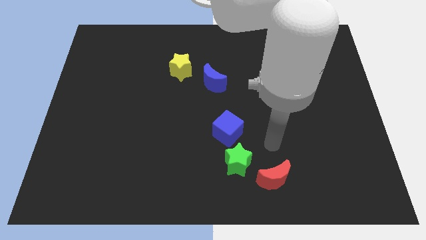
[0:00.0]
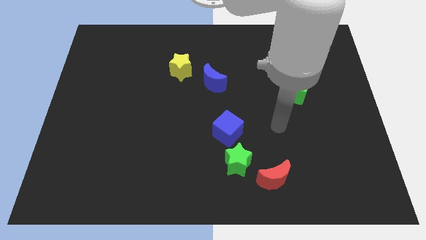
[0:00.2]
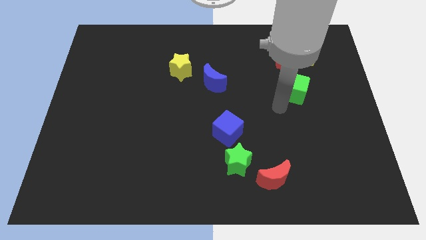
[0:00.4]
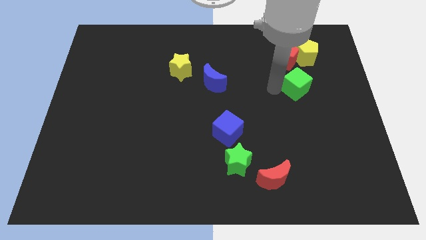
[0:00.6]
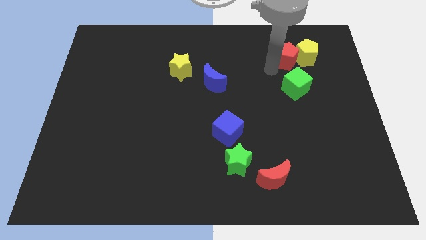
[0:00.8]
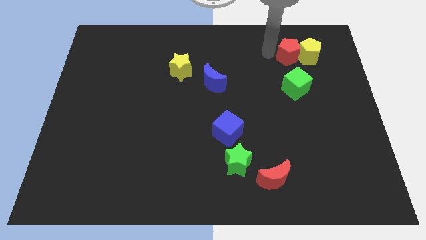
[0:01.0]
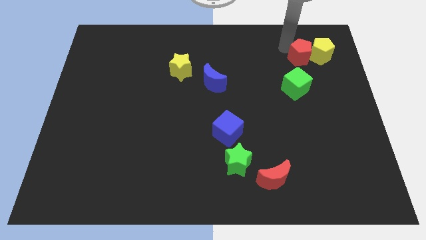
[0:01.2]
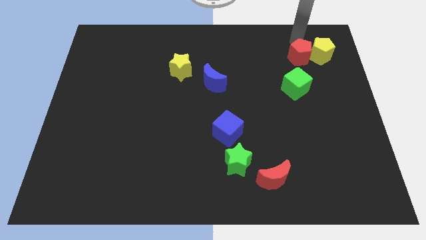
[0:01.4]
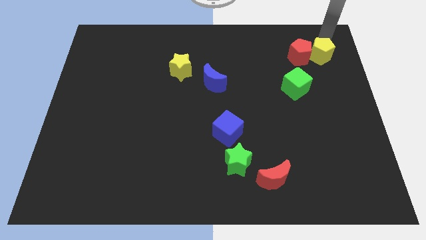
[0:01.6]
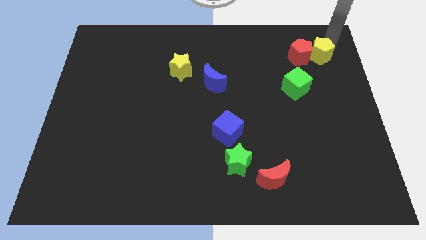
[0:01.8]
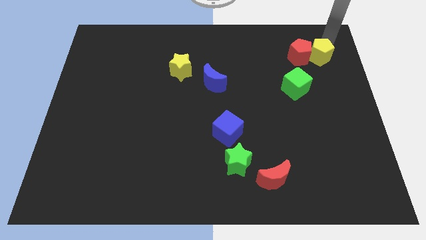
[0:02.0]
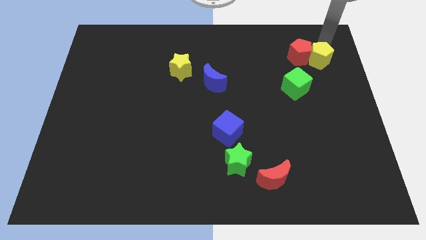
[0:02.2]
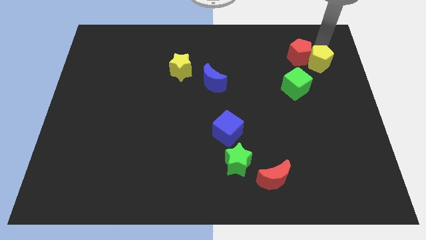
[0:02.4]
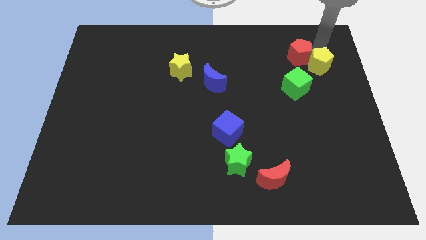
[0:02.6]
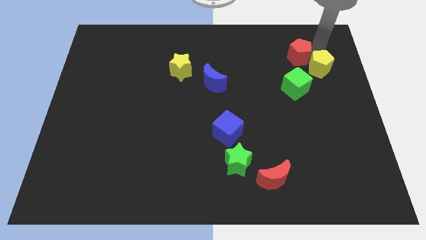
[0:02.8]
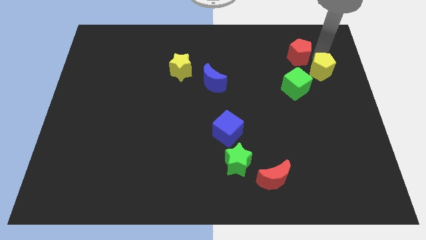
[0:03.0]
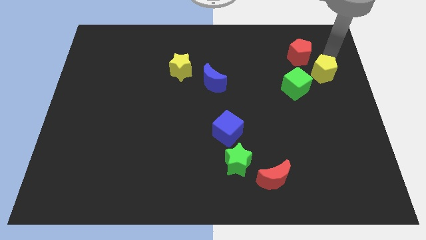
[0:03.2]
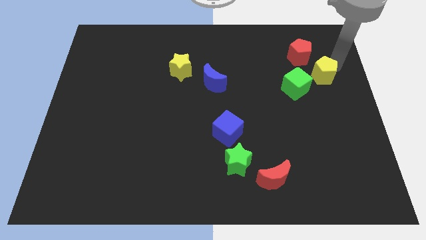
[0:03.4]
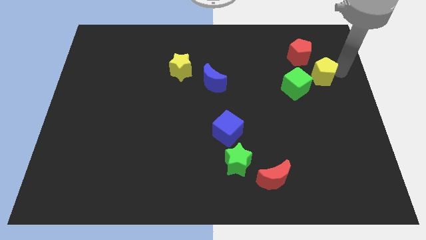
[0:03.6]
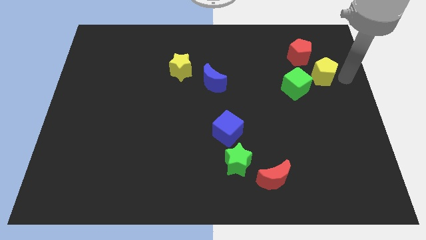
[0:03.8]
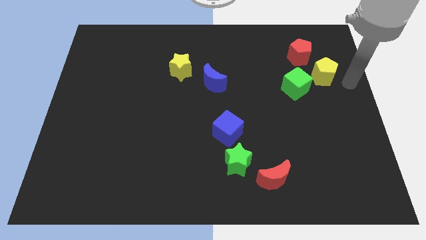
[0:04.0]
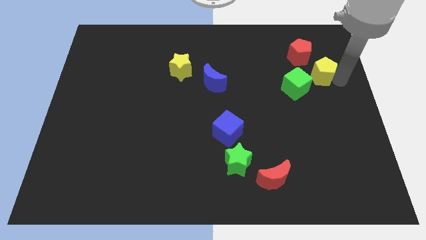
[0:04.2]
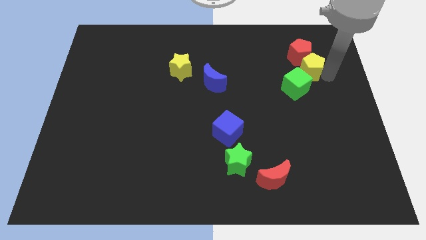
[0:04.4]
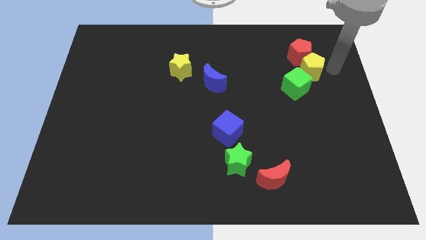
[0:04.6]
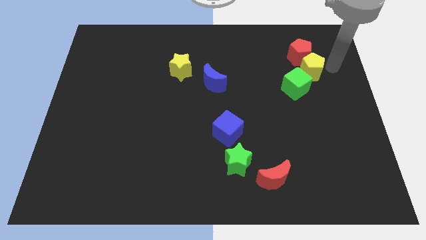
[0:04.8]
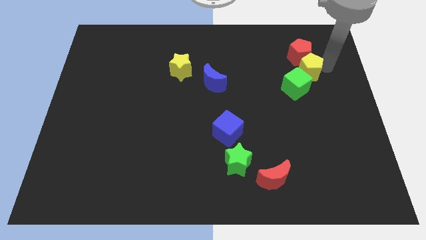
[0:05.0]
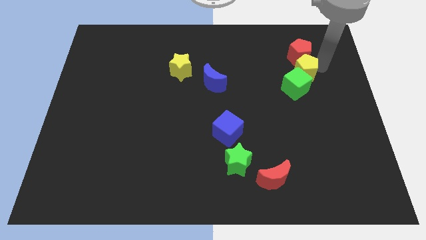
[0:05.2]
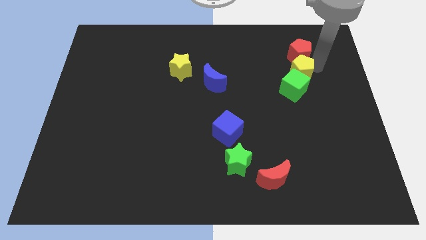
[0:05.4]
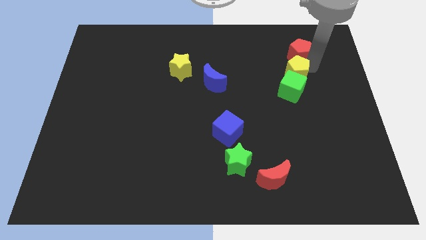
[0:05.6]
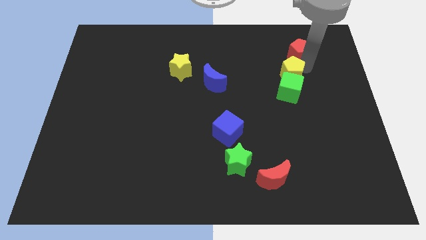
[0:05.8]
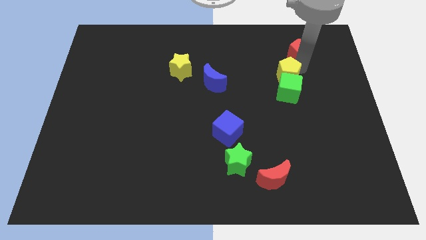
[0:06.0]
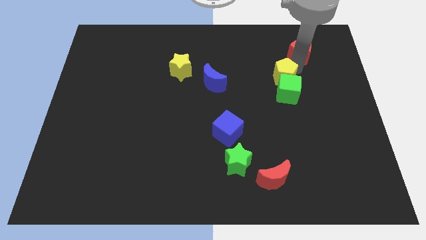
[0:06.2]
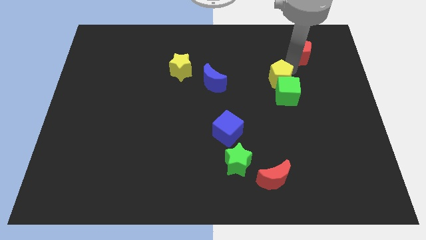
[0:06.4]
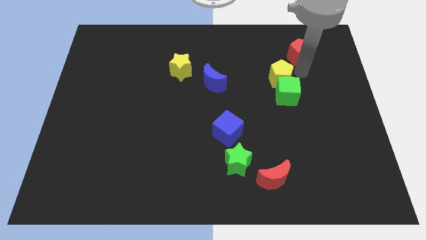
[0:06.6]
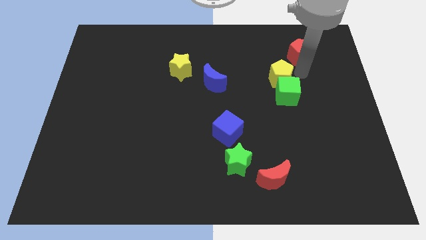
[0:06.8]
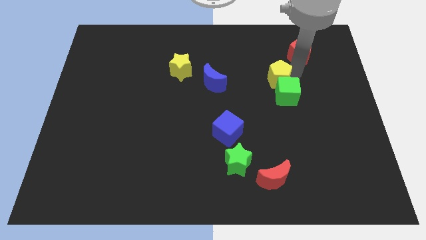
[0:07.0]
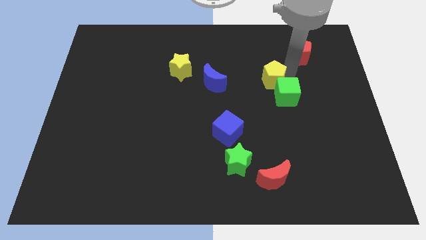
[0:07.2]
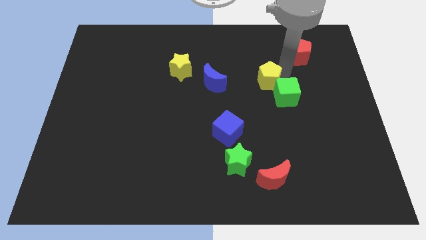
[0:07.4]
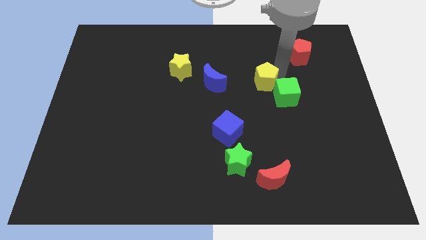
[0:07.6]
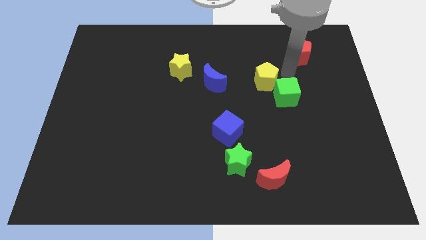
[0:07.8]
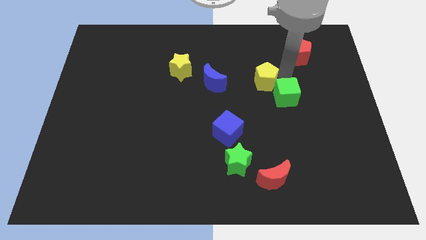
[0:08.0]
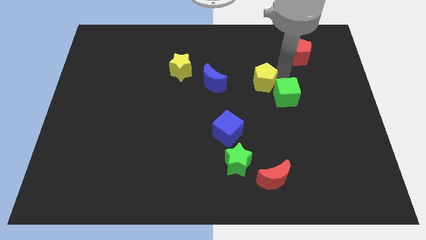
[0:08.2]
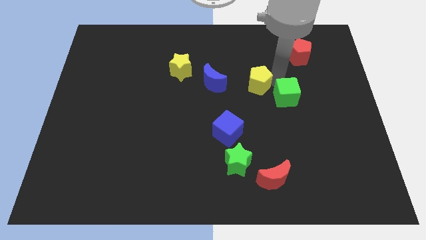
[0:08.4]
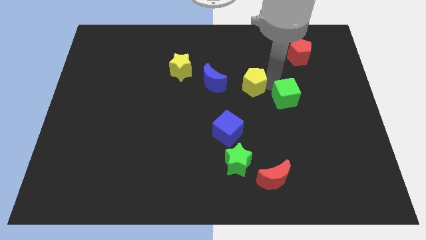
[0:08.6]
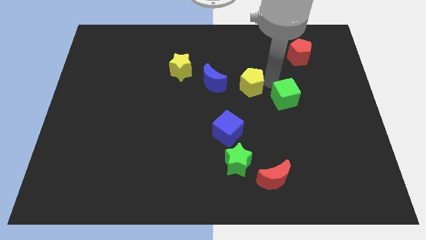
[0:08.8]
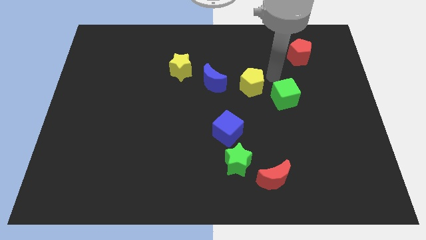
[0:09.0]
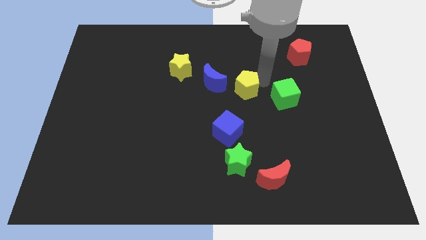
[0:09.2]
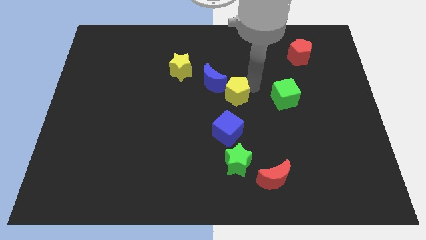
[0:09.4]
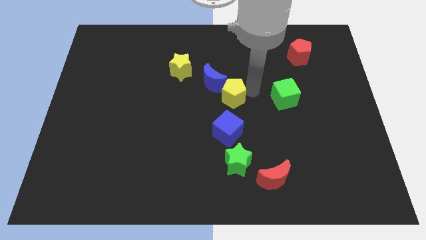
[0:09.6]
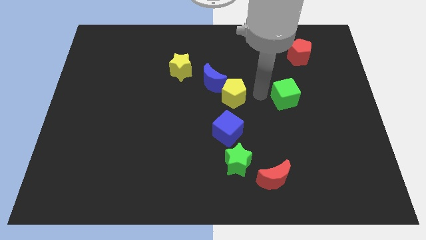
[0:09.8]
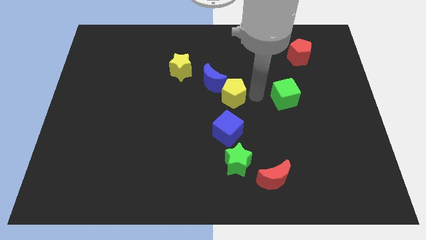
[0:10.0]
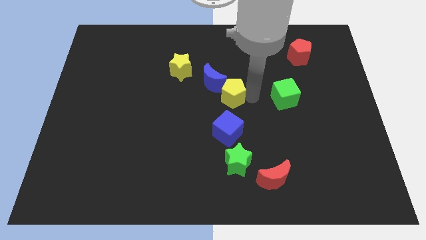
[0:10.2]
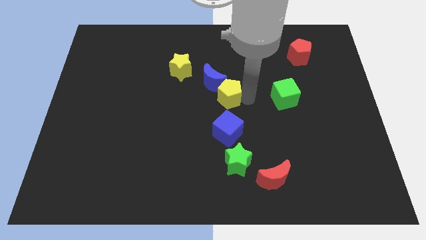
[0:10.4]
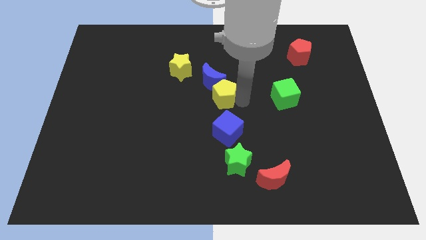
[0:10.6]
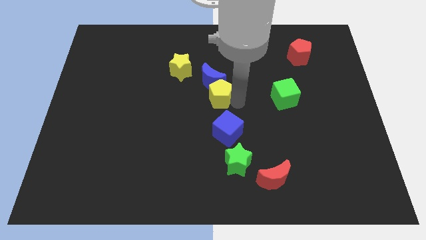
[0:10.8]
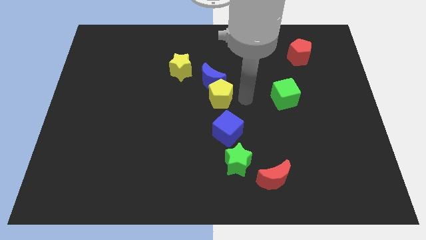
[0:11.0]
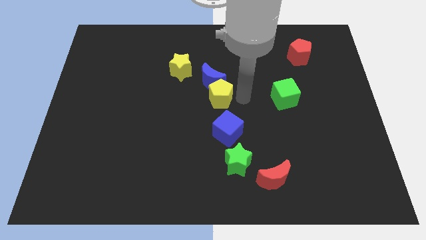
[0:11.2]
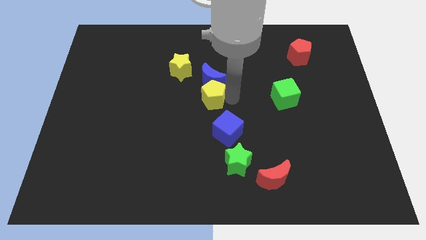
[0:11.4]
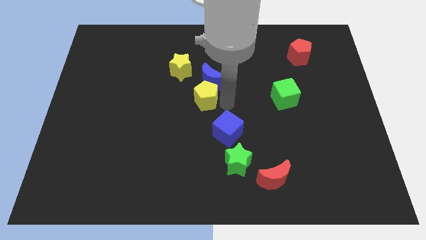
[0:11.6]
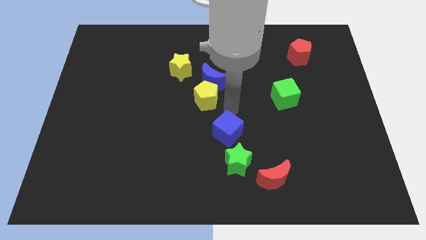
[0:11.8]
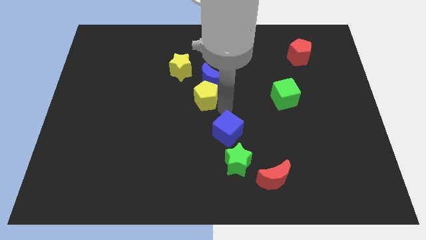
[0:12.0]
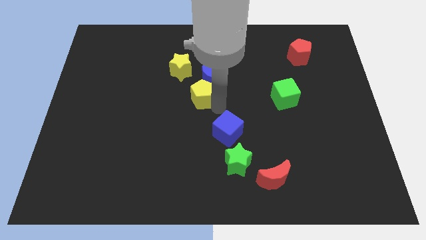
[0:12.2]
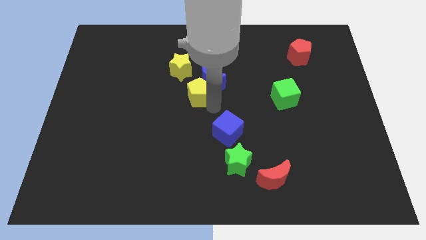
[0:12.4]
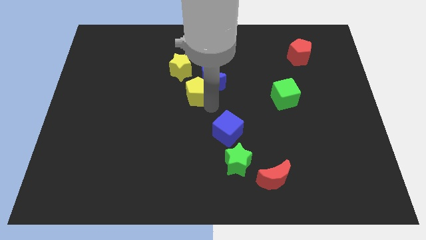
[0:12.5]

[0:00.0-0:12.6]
put the yellow pentagon just left of the blue moon

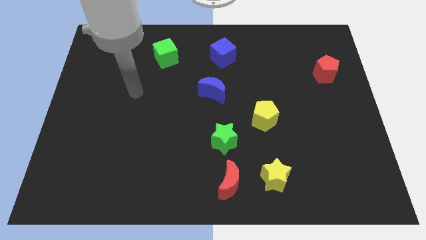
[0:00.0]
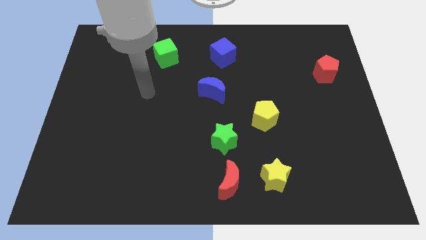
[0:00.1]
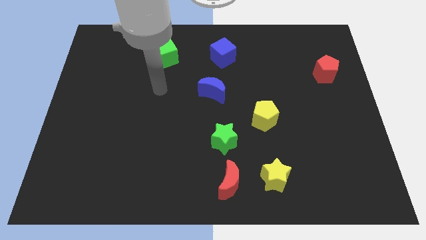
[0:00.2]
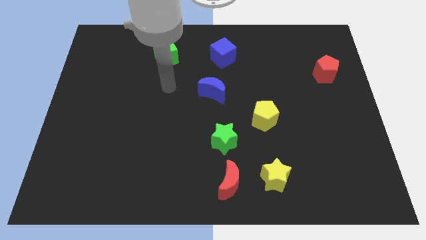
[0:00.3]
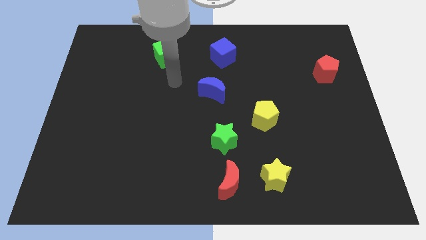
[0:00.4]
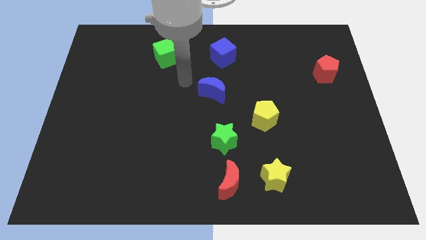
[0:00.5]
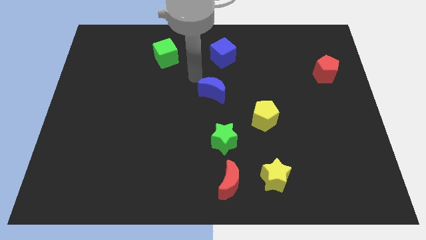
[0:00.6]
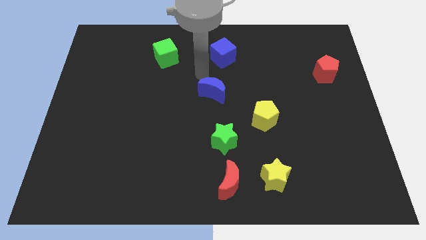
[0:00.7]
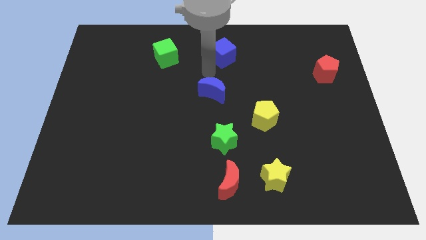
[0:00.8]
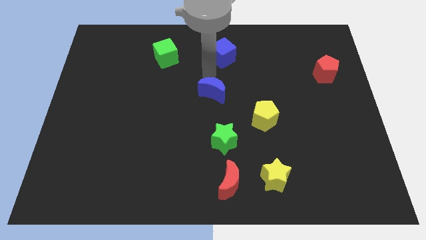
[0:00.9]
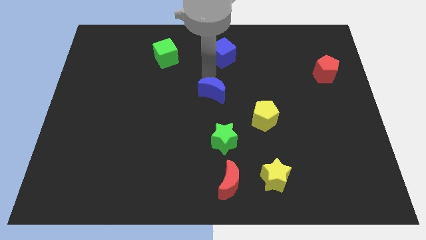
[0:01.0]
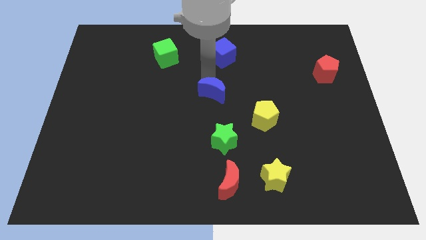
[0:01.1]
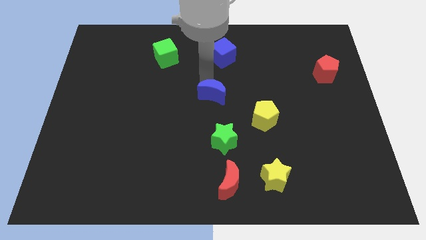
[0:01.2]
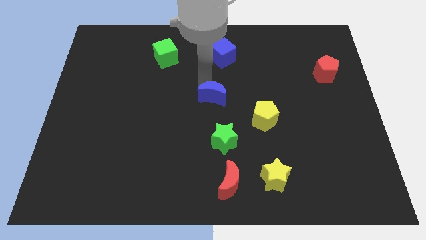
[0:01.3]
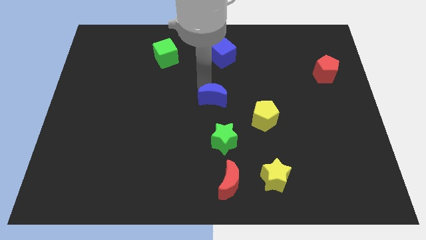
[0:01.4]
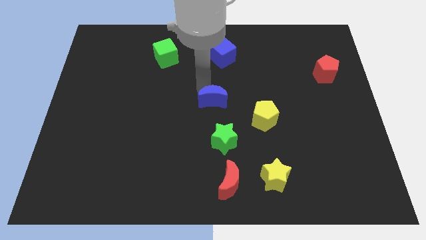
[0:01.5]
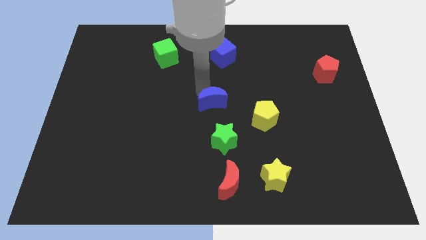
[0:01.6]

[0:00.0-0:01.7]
put the blue moon to the left of the yellow pentagon
